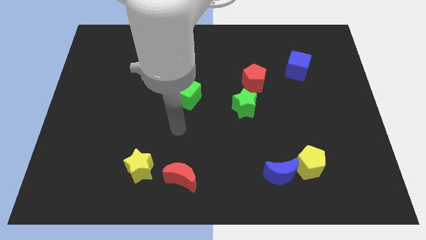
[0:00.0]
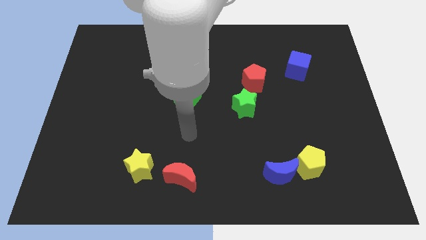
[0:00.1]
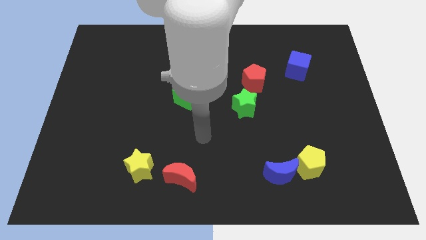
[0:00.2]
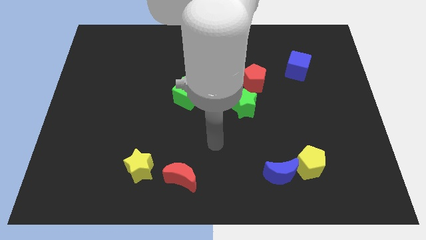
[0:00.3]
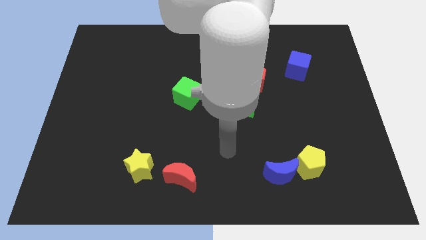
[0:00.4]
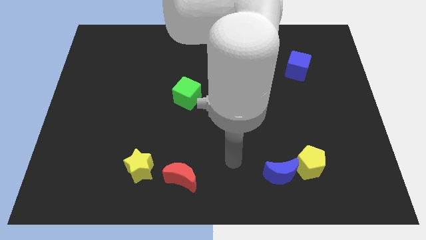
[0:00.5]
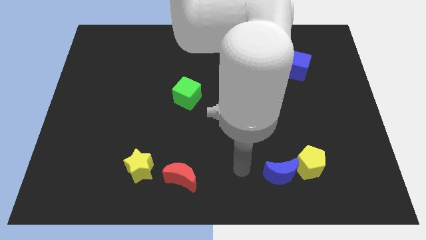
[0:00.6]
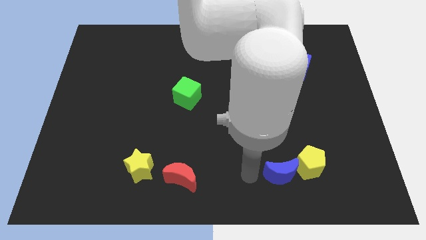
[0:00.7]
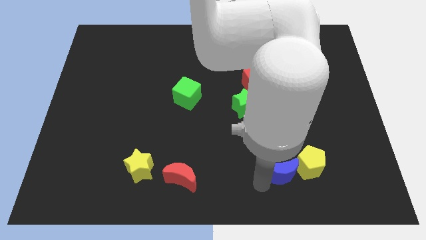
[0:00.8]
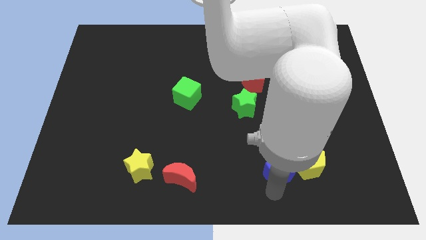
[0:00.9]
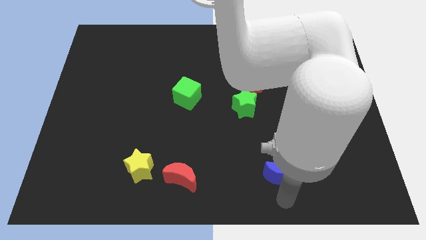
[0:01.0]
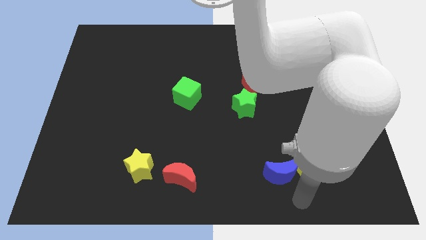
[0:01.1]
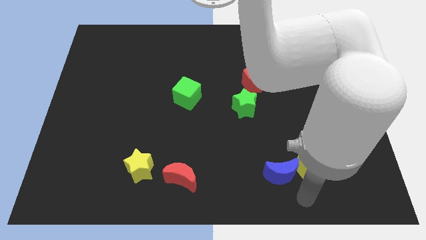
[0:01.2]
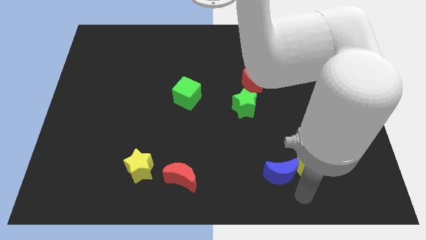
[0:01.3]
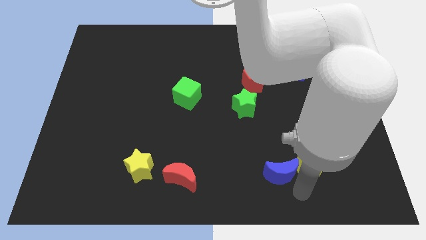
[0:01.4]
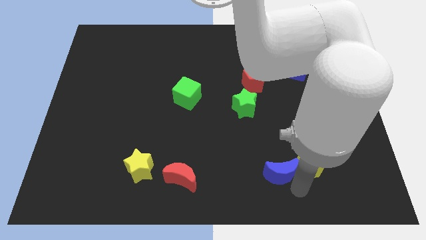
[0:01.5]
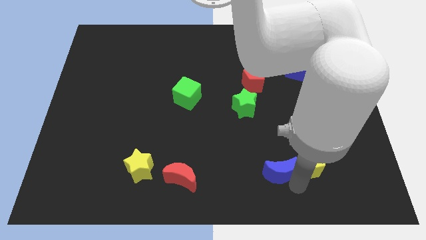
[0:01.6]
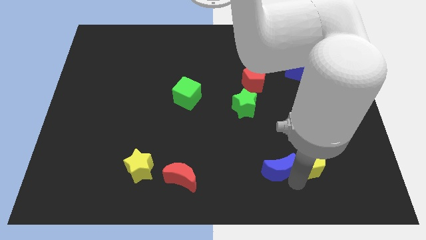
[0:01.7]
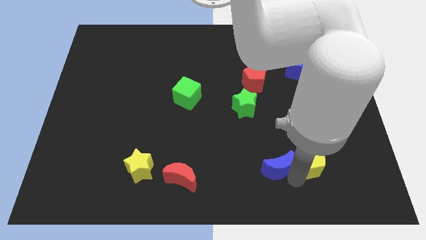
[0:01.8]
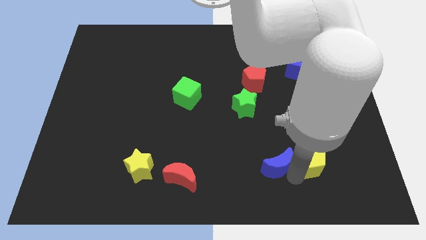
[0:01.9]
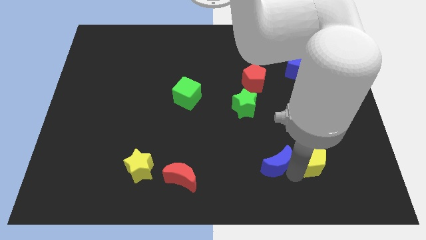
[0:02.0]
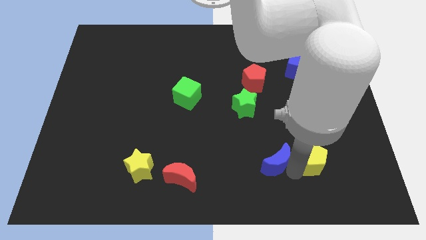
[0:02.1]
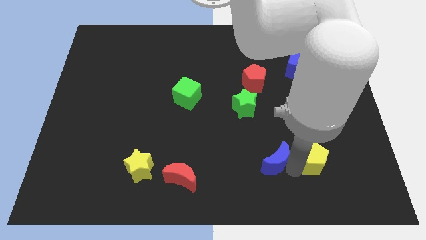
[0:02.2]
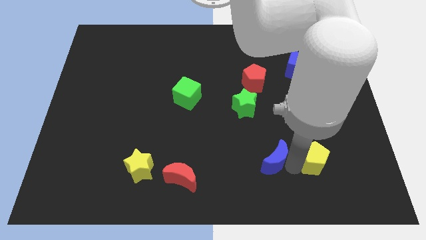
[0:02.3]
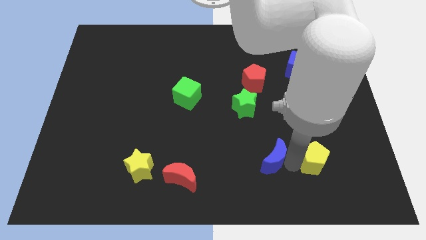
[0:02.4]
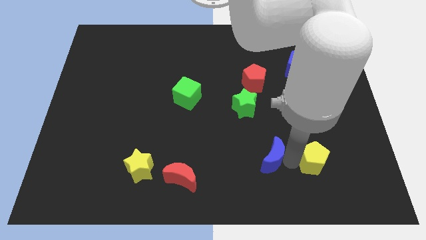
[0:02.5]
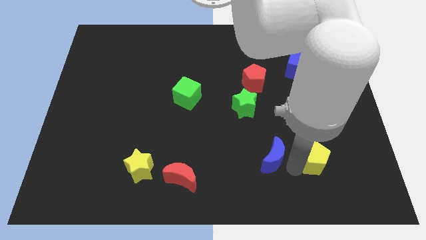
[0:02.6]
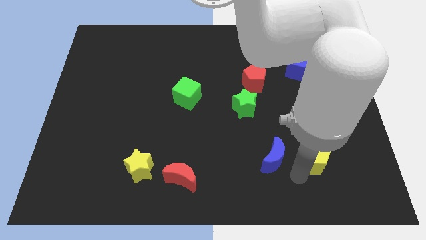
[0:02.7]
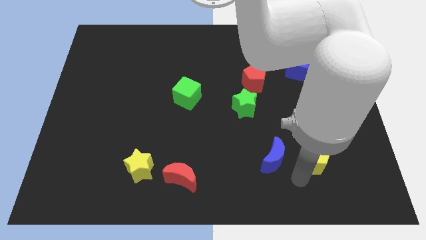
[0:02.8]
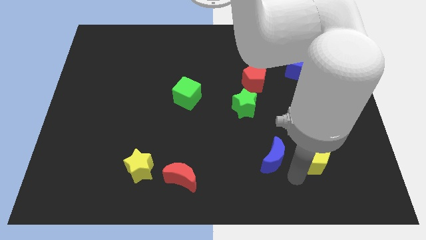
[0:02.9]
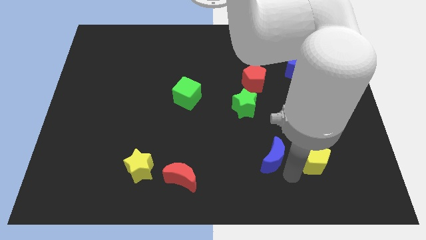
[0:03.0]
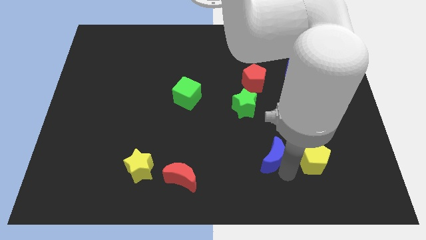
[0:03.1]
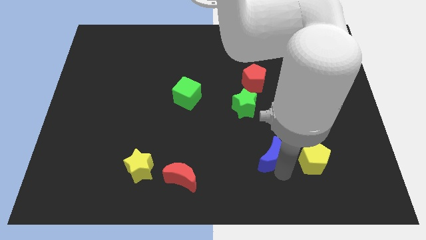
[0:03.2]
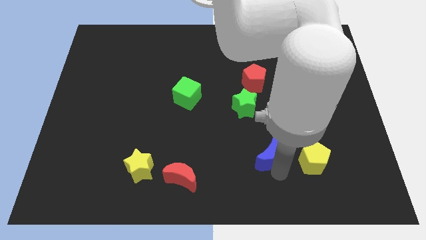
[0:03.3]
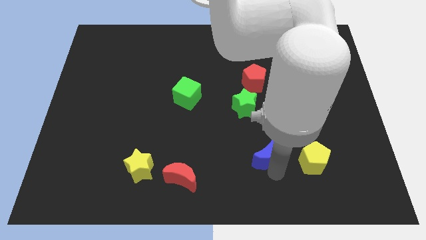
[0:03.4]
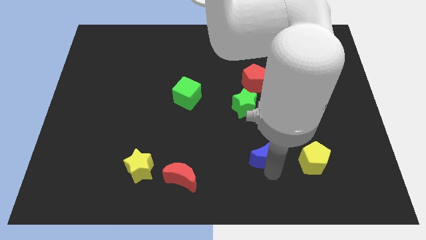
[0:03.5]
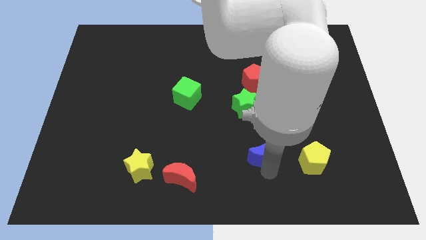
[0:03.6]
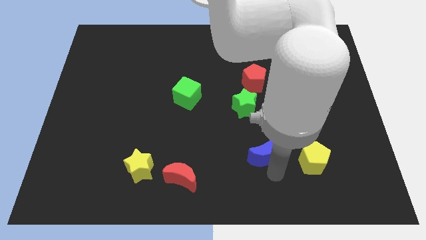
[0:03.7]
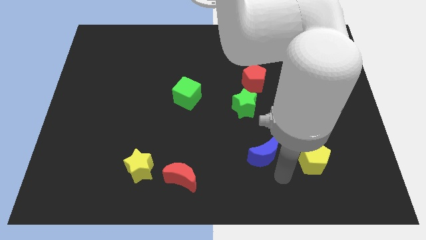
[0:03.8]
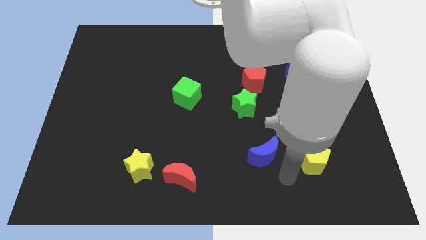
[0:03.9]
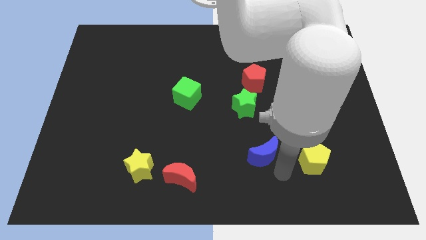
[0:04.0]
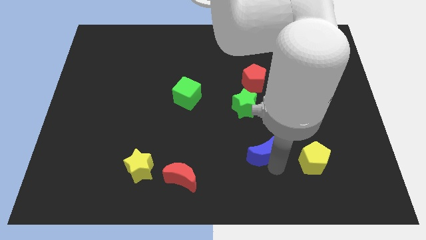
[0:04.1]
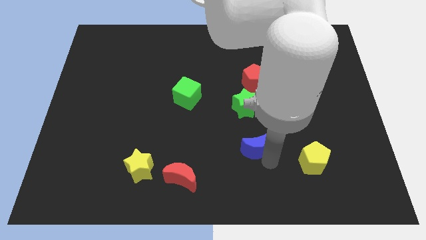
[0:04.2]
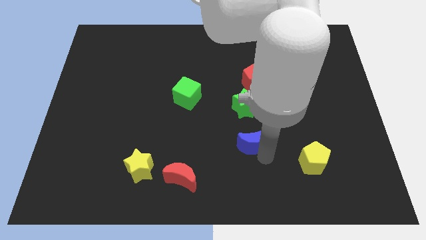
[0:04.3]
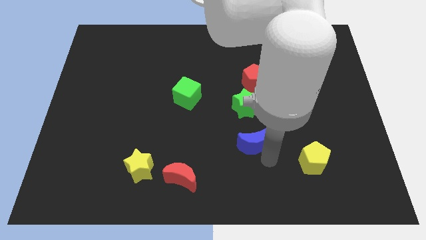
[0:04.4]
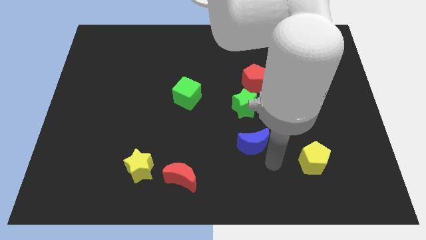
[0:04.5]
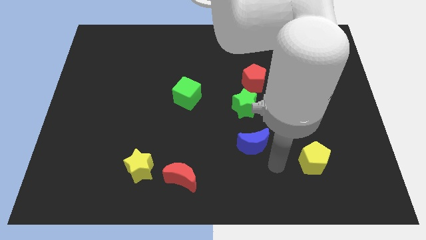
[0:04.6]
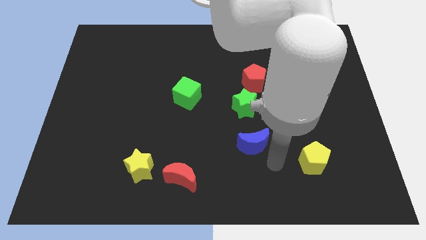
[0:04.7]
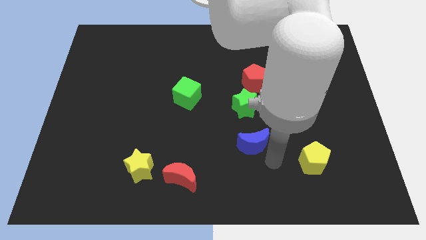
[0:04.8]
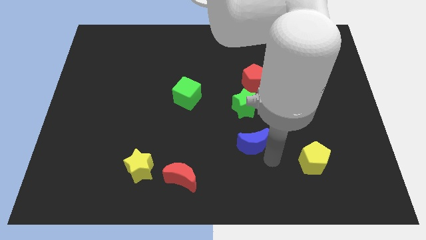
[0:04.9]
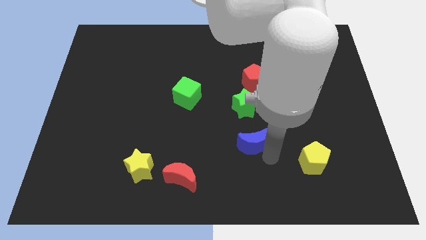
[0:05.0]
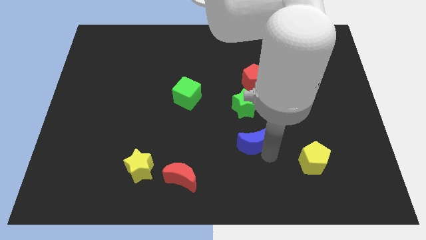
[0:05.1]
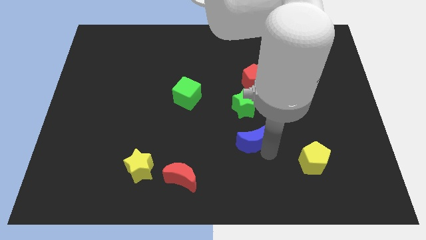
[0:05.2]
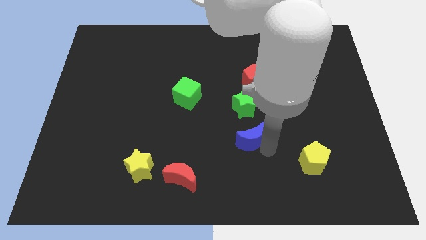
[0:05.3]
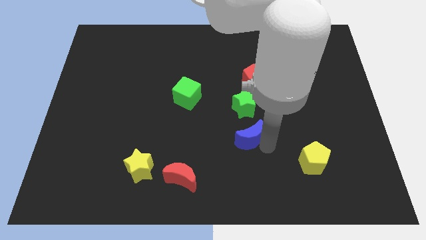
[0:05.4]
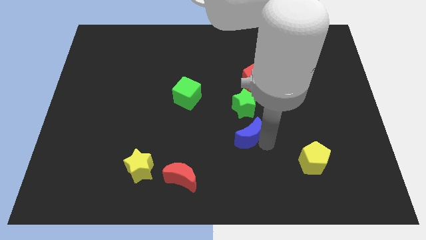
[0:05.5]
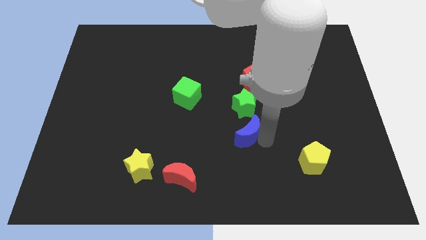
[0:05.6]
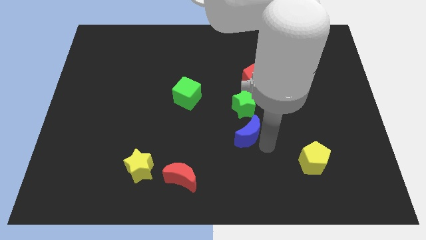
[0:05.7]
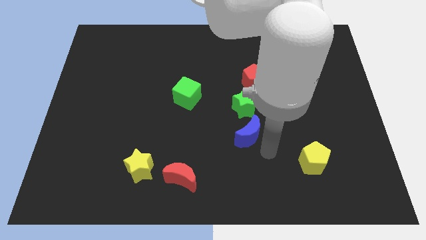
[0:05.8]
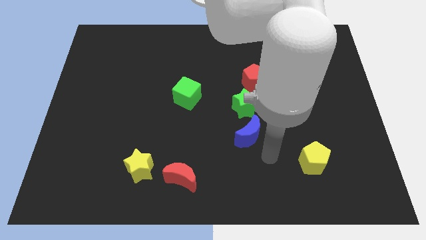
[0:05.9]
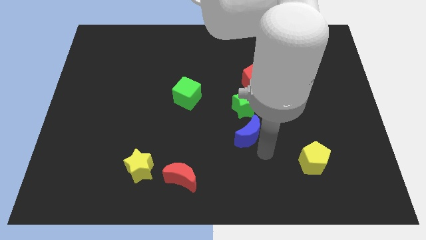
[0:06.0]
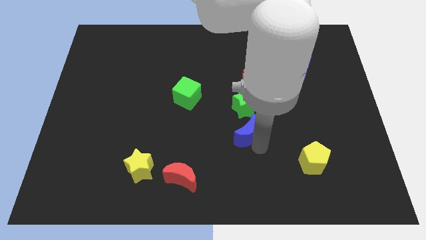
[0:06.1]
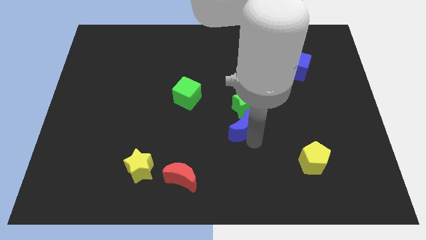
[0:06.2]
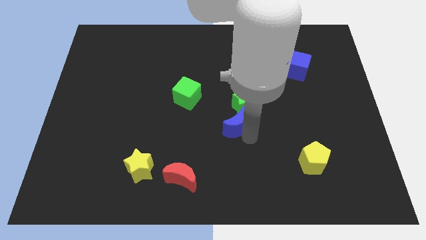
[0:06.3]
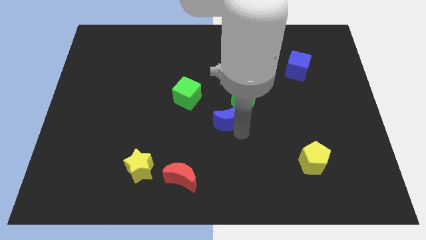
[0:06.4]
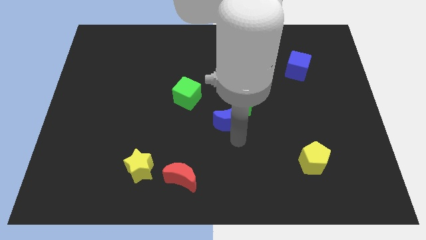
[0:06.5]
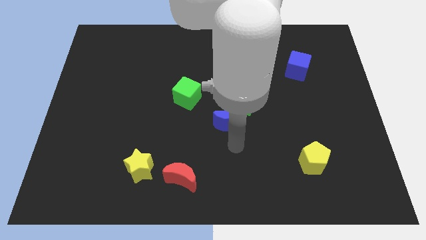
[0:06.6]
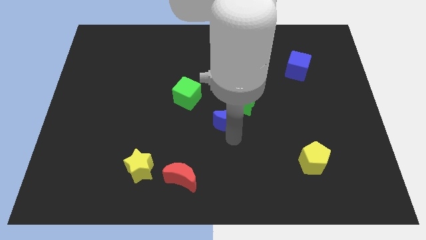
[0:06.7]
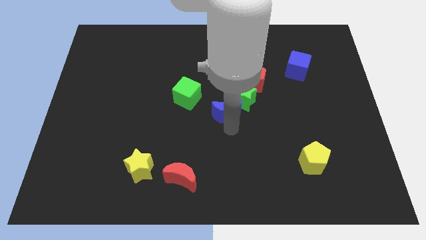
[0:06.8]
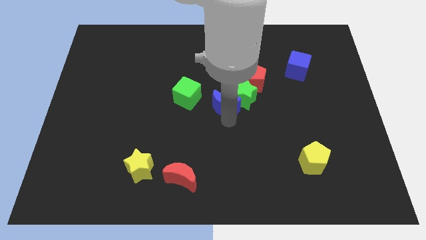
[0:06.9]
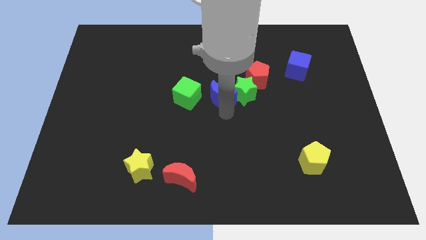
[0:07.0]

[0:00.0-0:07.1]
slide the blue moon diagonally up and to the left of the green star
